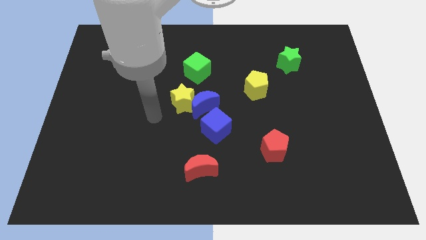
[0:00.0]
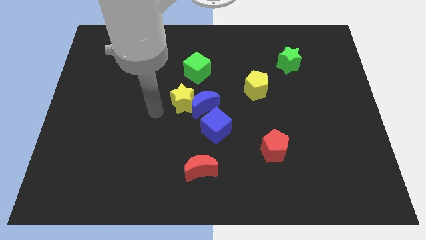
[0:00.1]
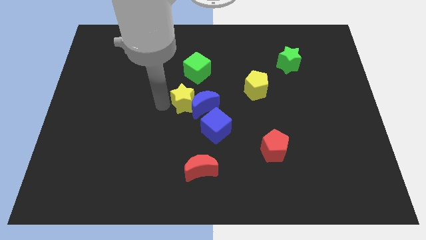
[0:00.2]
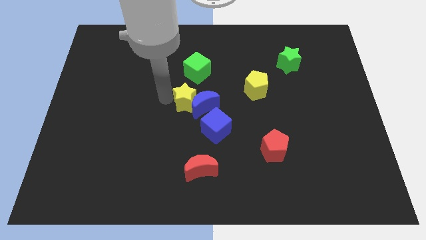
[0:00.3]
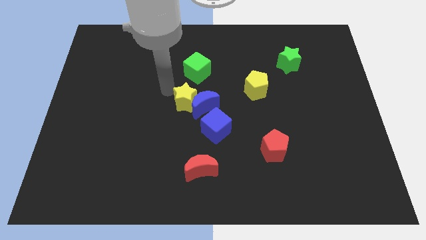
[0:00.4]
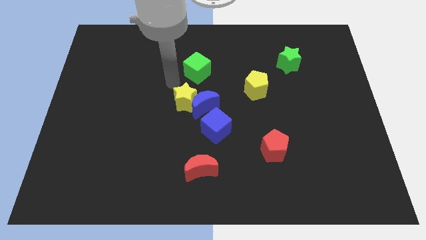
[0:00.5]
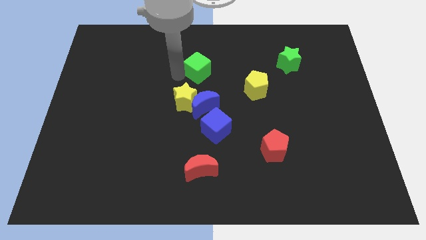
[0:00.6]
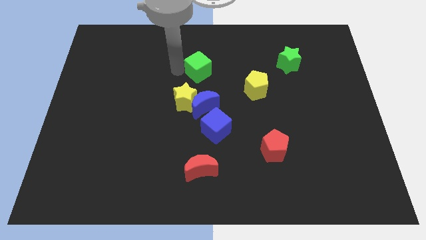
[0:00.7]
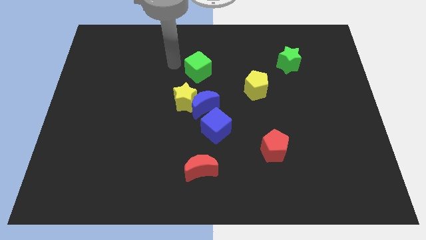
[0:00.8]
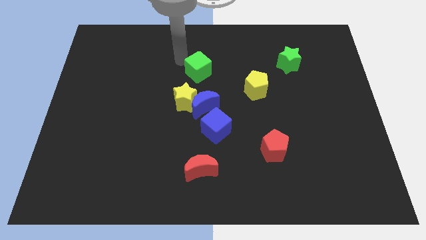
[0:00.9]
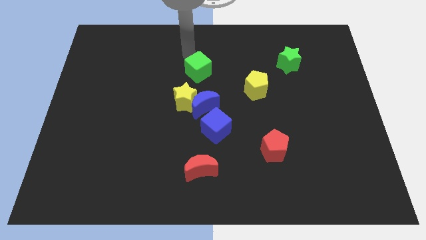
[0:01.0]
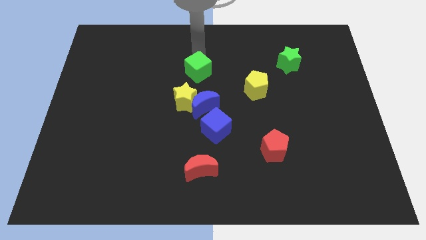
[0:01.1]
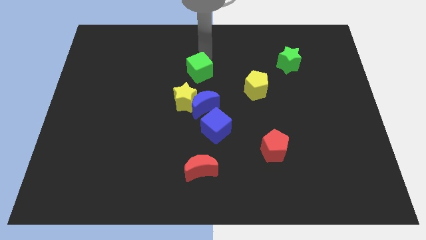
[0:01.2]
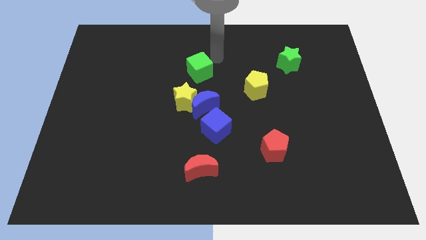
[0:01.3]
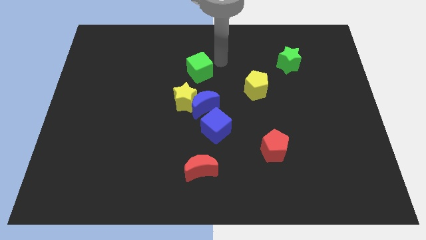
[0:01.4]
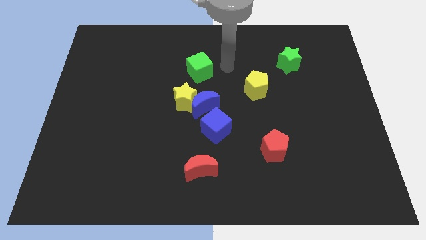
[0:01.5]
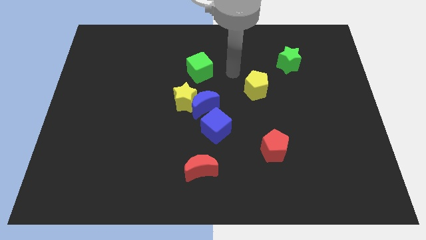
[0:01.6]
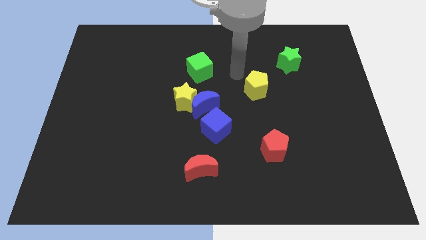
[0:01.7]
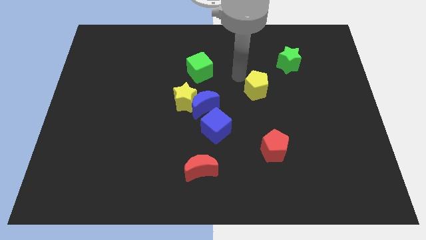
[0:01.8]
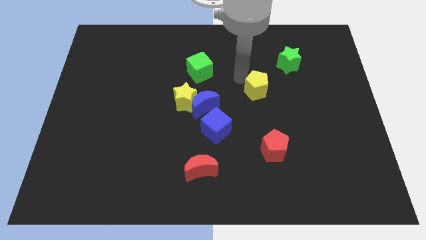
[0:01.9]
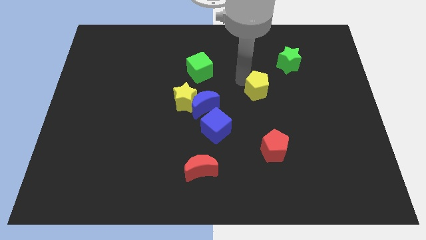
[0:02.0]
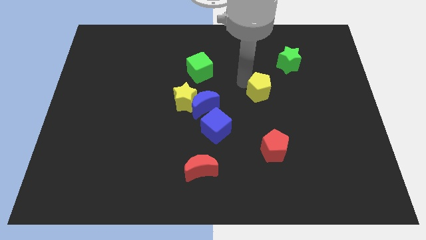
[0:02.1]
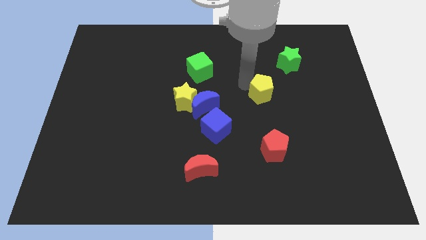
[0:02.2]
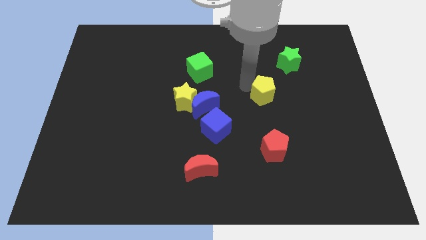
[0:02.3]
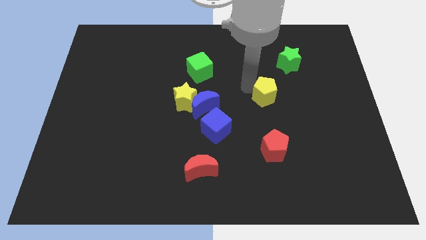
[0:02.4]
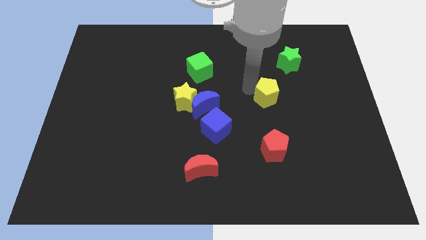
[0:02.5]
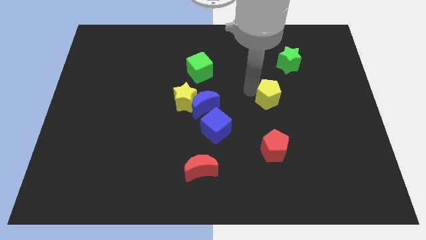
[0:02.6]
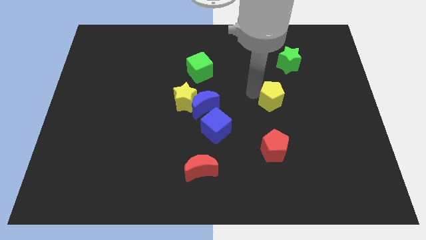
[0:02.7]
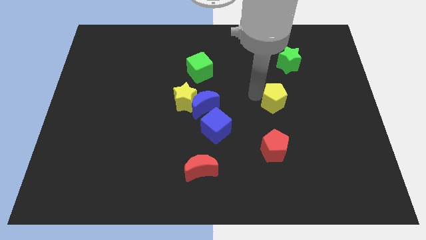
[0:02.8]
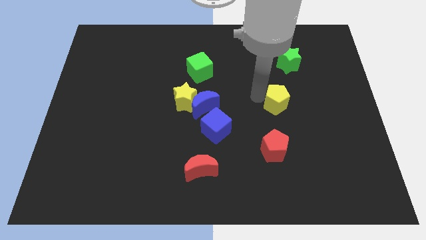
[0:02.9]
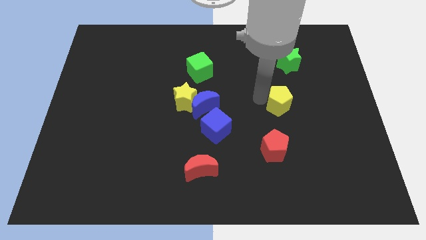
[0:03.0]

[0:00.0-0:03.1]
move the yellow pentagon diagonally downwards and to the right a bit

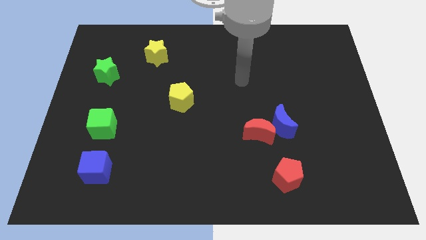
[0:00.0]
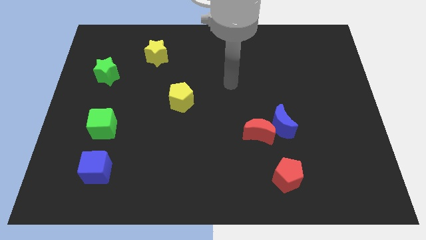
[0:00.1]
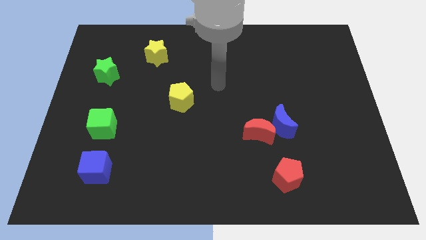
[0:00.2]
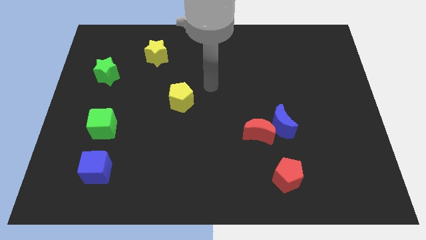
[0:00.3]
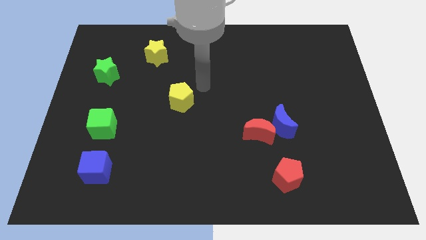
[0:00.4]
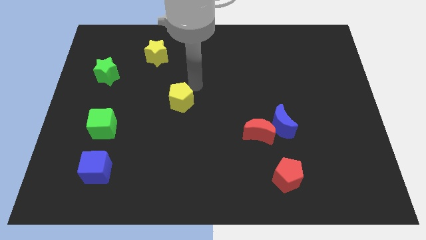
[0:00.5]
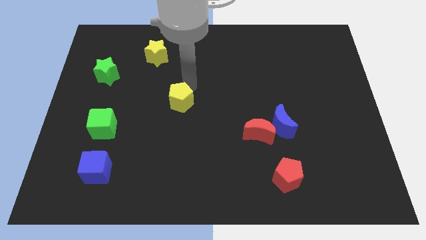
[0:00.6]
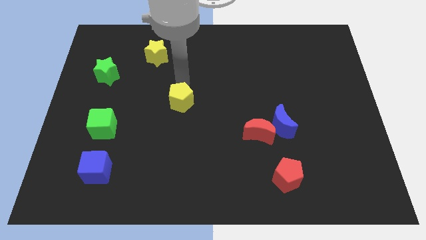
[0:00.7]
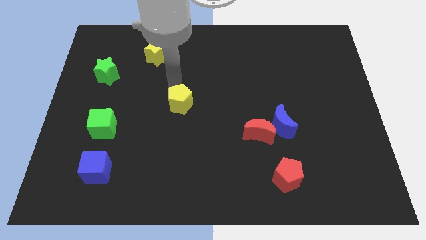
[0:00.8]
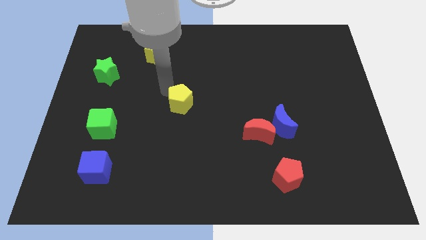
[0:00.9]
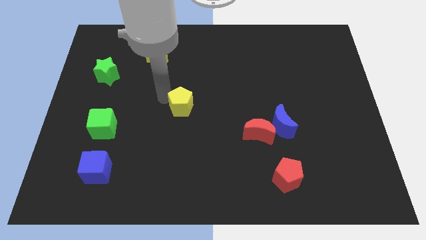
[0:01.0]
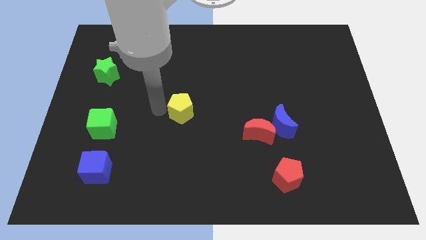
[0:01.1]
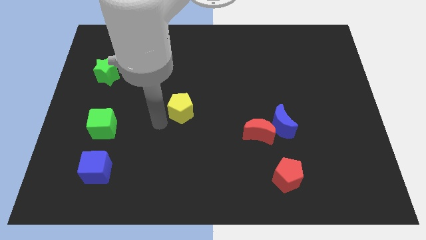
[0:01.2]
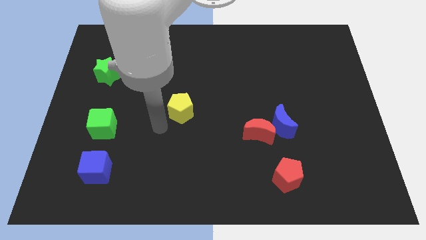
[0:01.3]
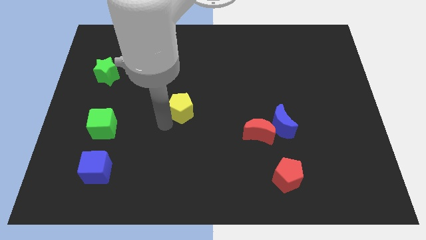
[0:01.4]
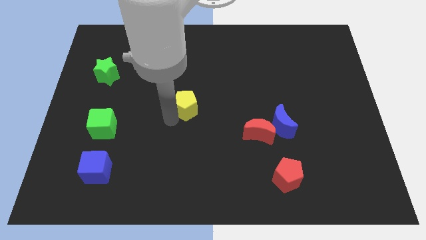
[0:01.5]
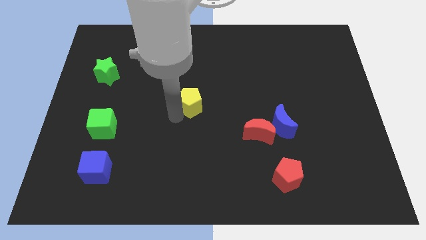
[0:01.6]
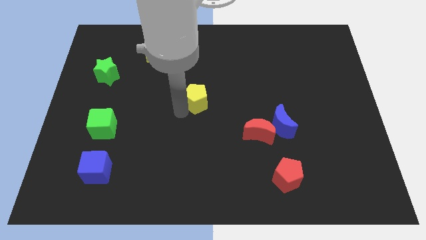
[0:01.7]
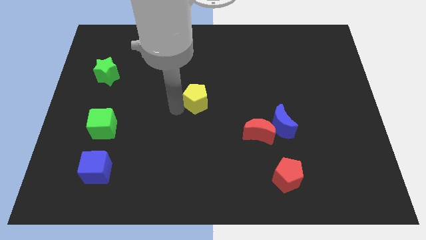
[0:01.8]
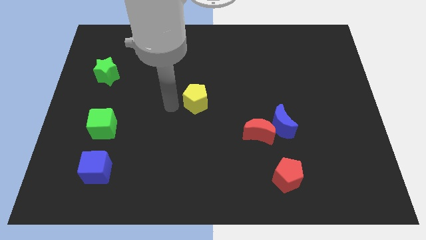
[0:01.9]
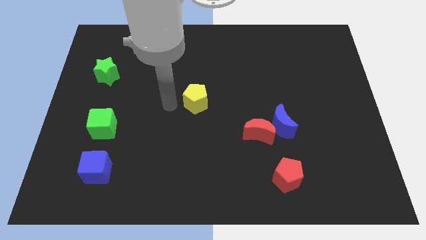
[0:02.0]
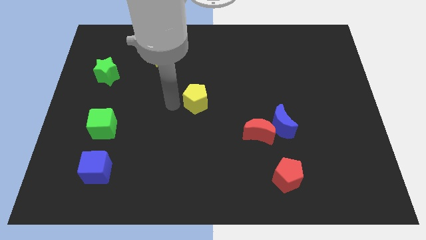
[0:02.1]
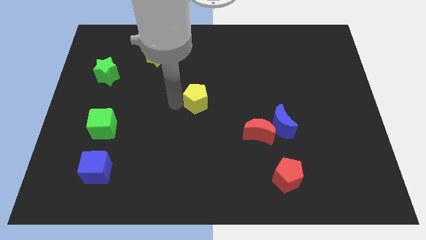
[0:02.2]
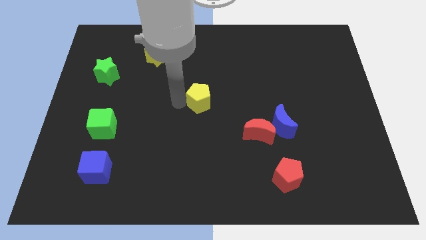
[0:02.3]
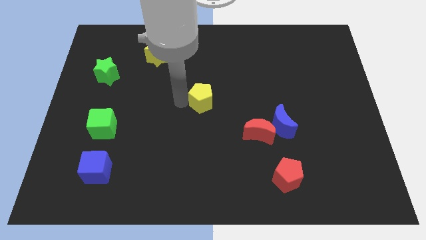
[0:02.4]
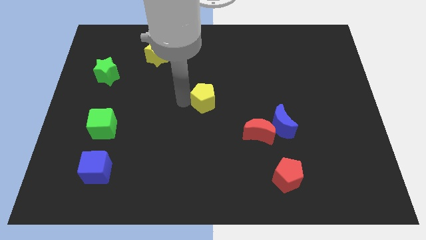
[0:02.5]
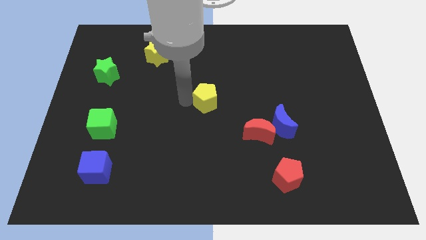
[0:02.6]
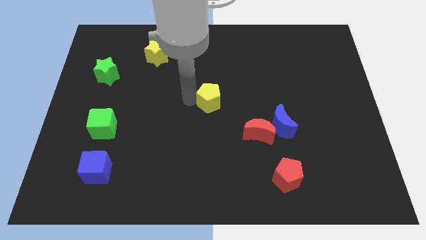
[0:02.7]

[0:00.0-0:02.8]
slightly move the yellow pentagon right

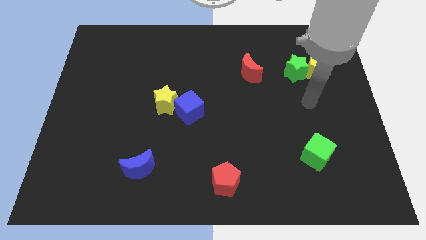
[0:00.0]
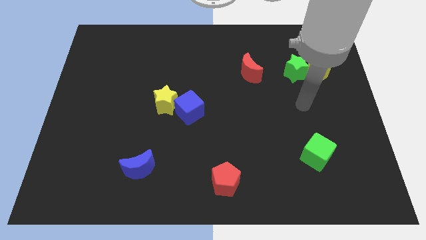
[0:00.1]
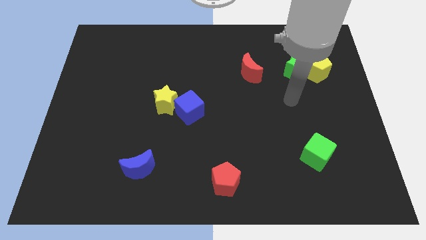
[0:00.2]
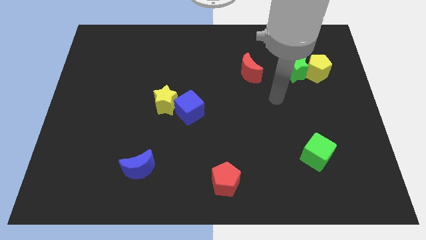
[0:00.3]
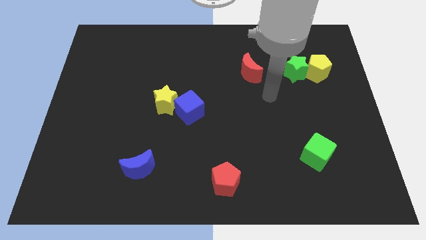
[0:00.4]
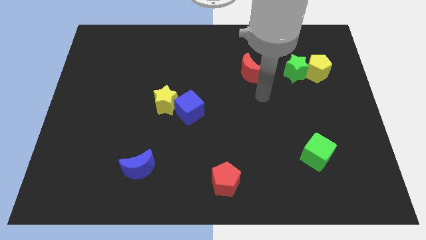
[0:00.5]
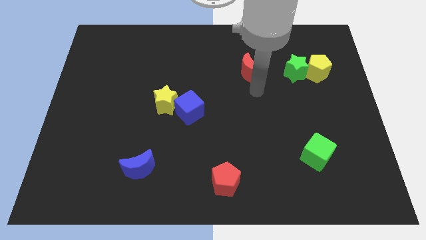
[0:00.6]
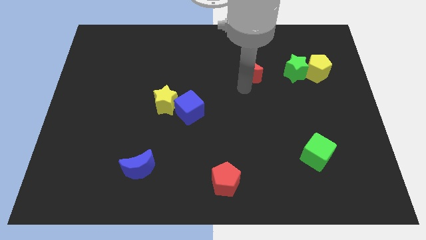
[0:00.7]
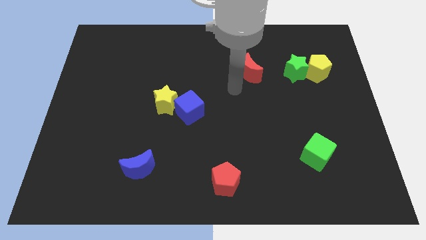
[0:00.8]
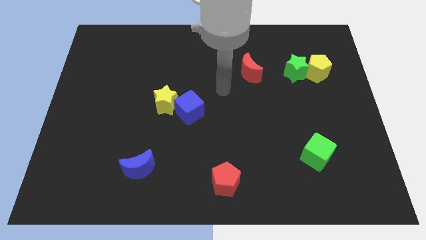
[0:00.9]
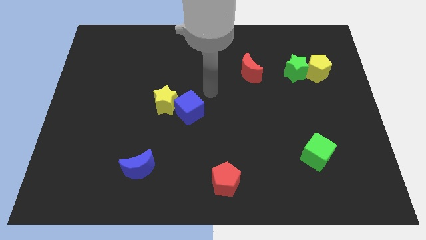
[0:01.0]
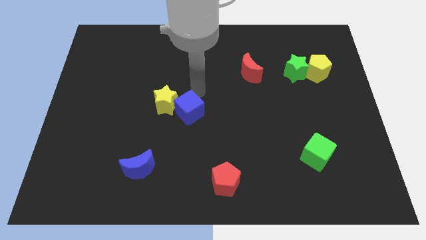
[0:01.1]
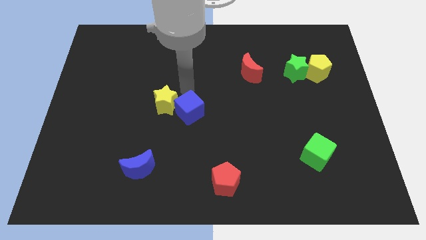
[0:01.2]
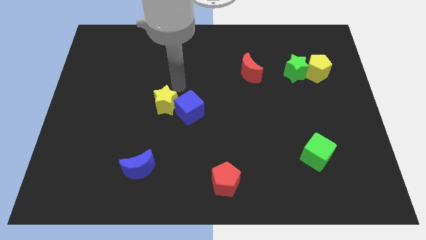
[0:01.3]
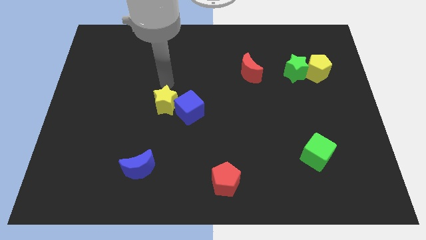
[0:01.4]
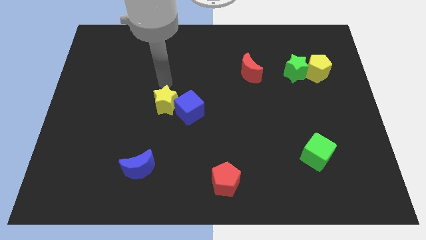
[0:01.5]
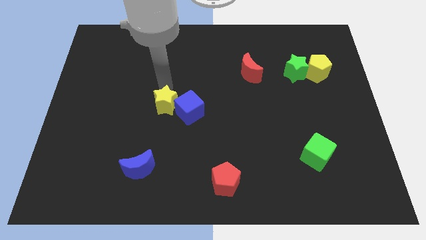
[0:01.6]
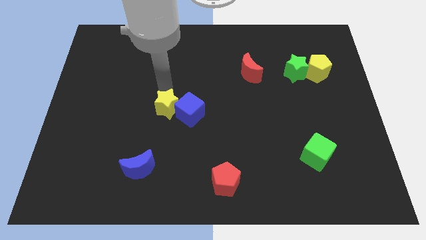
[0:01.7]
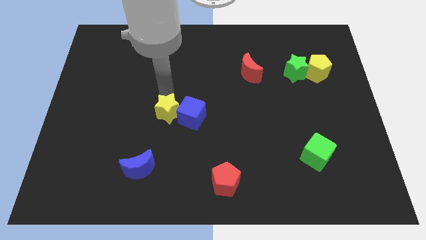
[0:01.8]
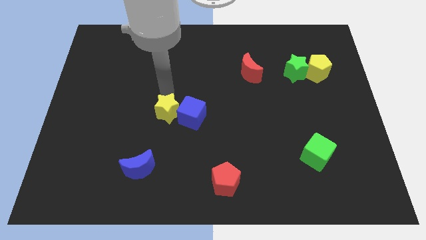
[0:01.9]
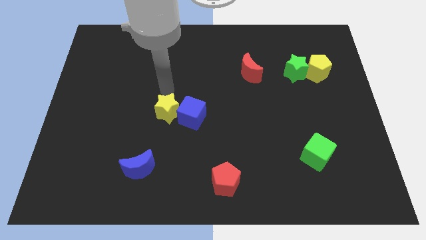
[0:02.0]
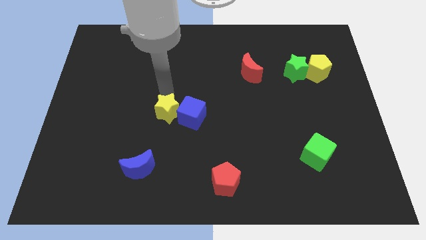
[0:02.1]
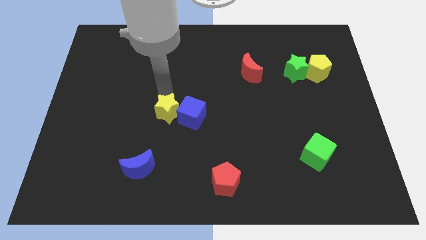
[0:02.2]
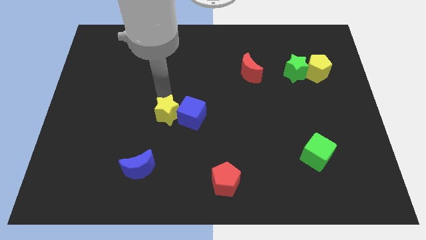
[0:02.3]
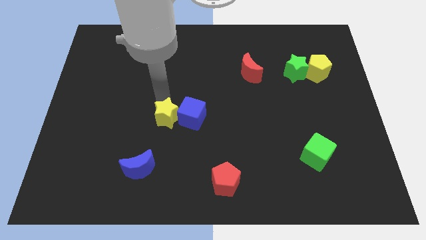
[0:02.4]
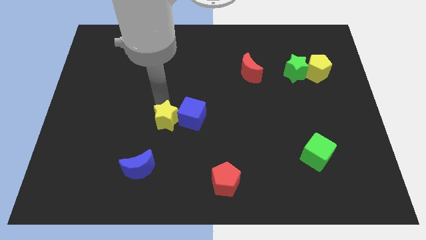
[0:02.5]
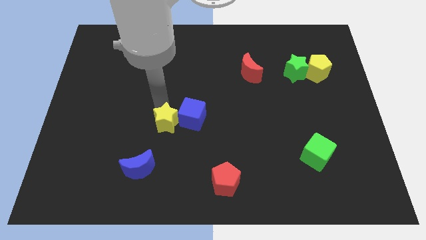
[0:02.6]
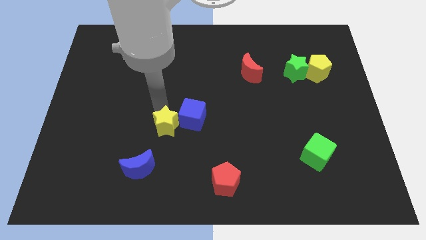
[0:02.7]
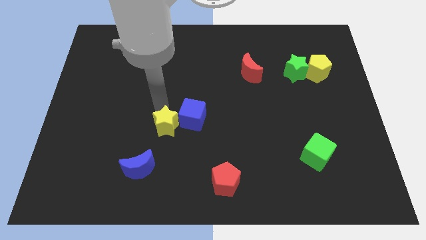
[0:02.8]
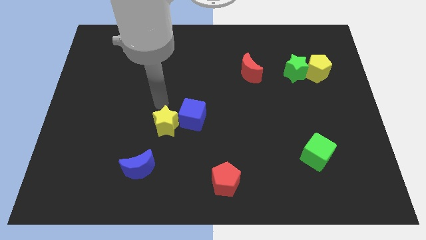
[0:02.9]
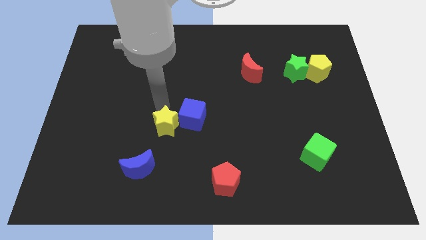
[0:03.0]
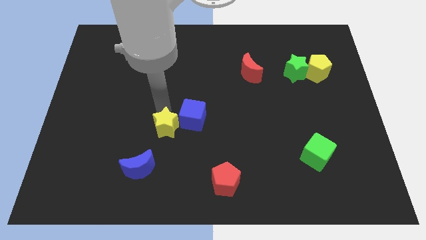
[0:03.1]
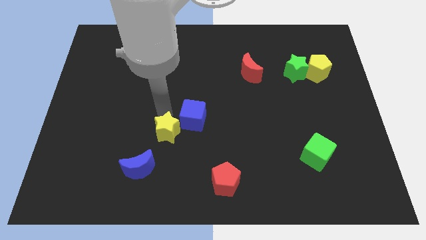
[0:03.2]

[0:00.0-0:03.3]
slide the yellow star a little downwards
